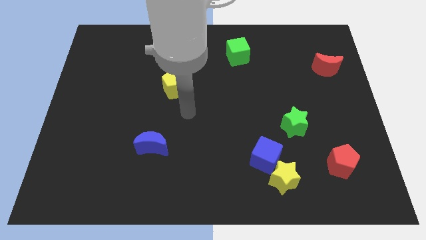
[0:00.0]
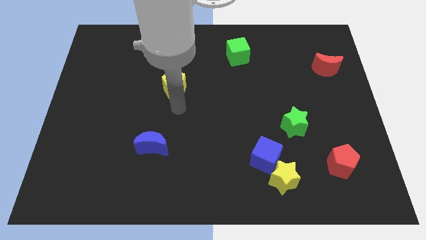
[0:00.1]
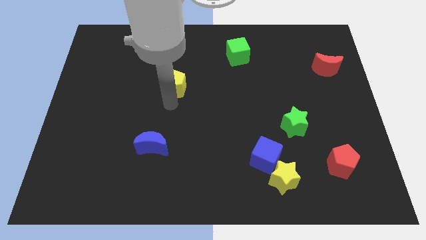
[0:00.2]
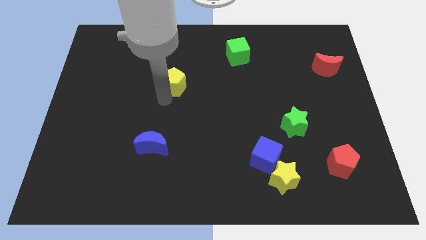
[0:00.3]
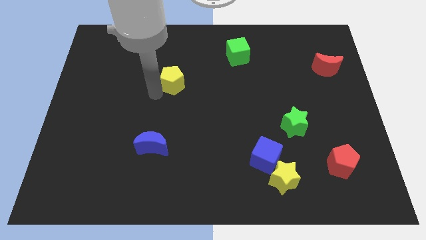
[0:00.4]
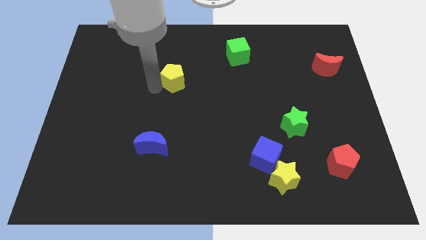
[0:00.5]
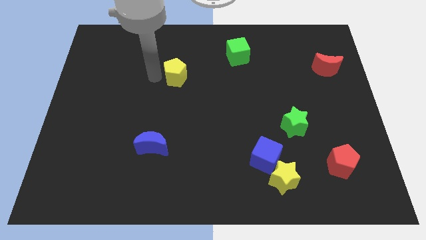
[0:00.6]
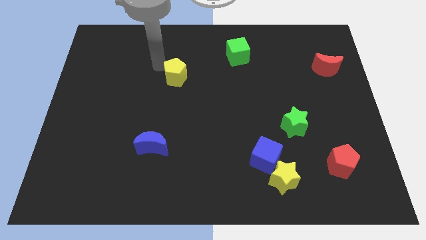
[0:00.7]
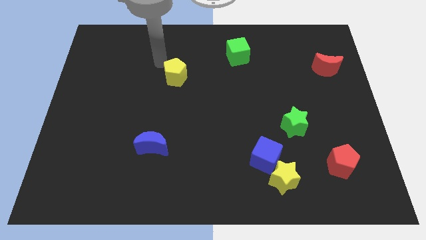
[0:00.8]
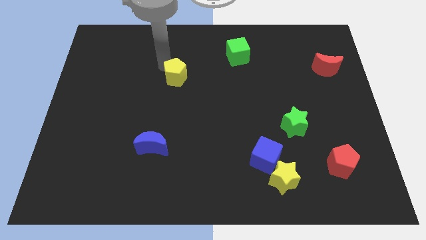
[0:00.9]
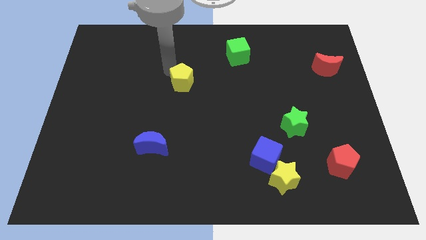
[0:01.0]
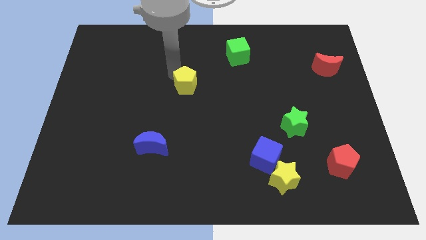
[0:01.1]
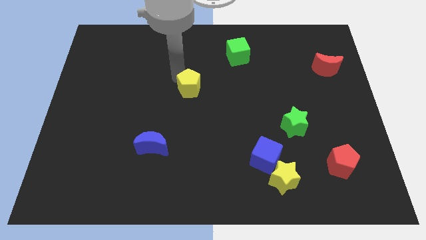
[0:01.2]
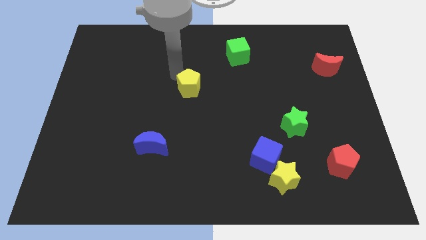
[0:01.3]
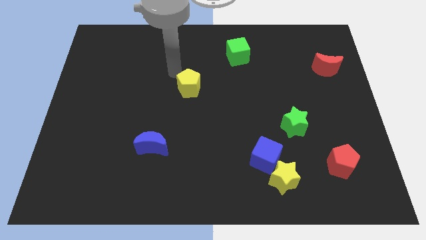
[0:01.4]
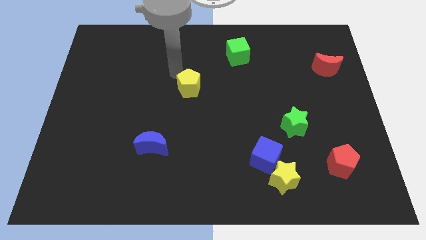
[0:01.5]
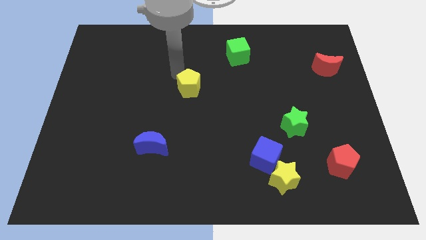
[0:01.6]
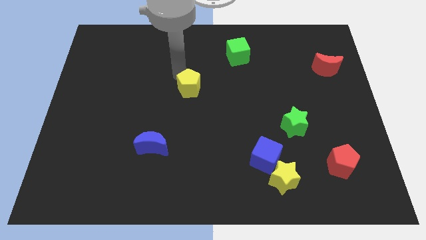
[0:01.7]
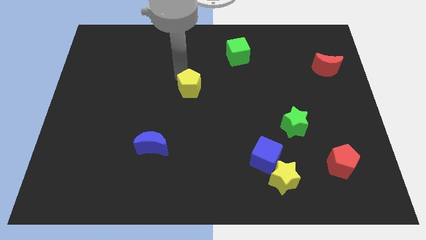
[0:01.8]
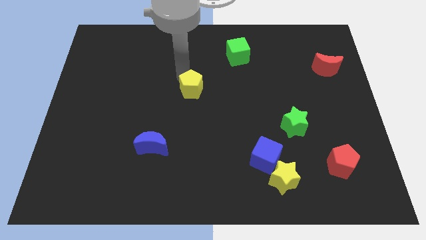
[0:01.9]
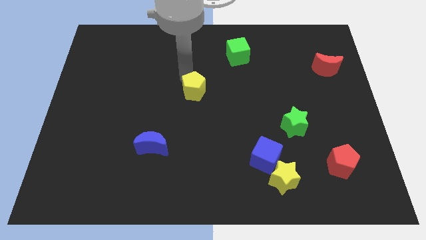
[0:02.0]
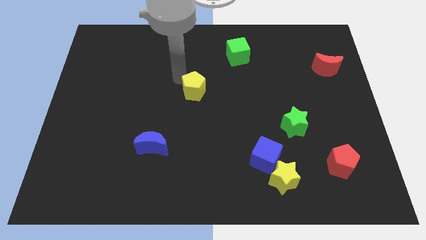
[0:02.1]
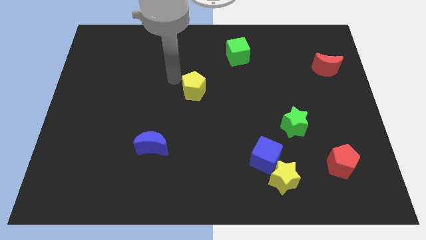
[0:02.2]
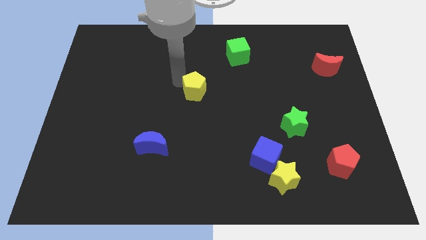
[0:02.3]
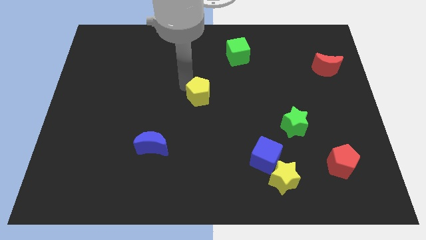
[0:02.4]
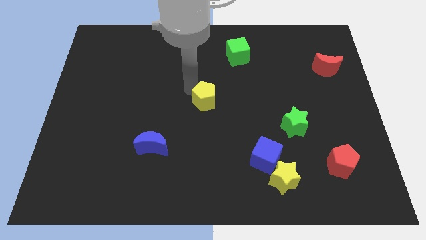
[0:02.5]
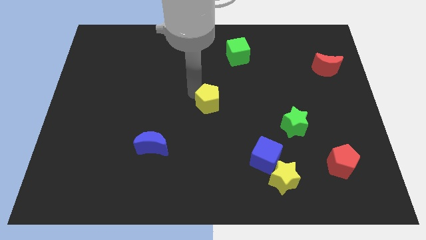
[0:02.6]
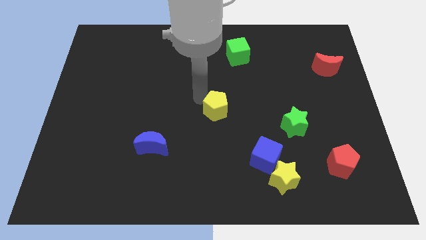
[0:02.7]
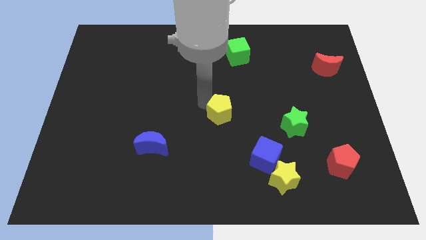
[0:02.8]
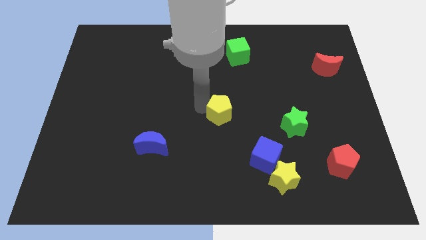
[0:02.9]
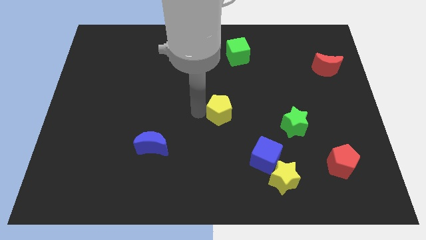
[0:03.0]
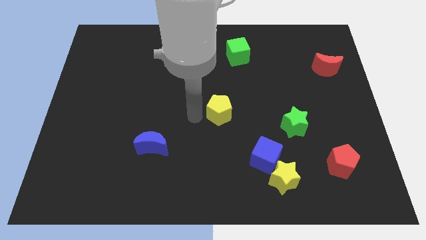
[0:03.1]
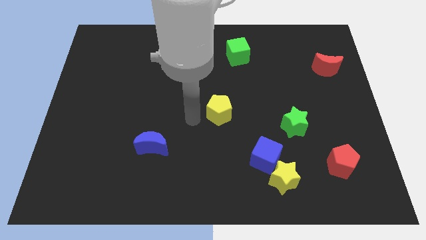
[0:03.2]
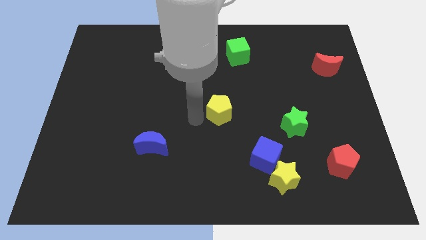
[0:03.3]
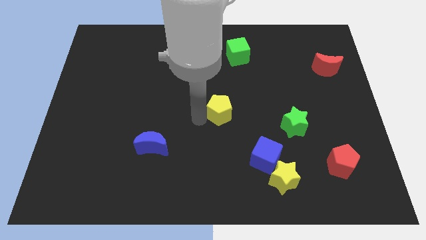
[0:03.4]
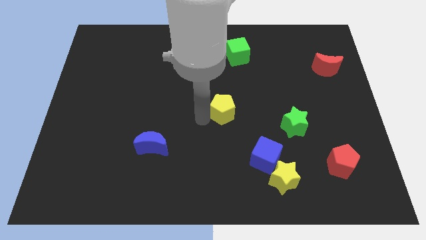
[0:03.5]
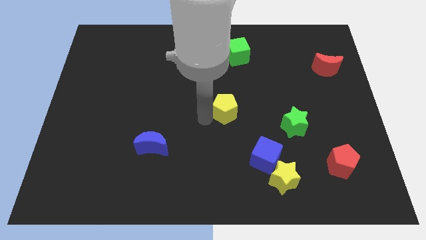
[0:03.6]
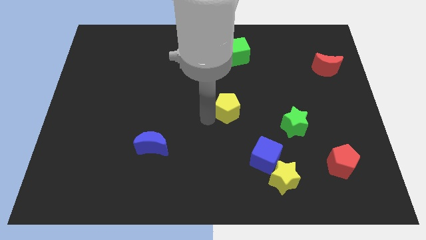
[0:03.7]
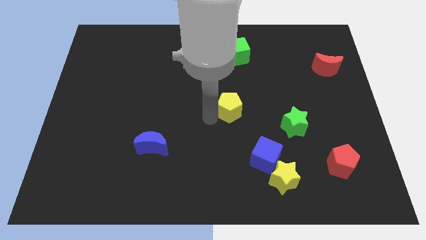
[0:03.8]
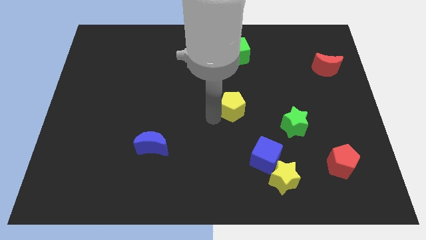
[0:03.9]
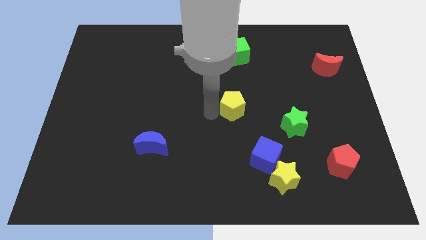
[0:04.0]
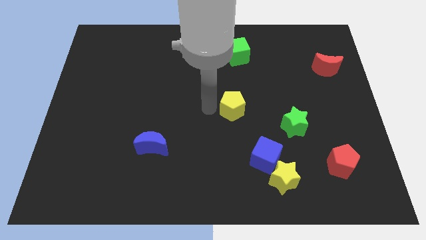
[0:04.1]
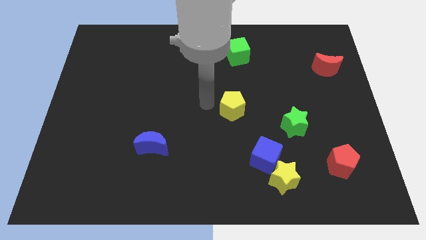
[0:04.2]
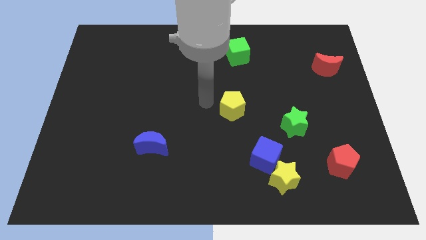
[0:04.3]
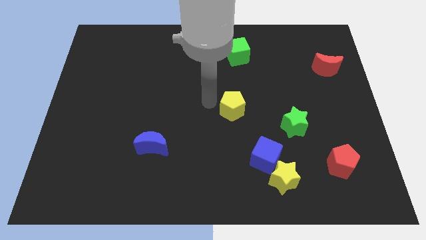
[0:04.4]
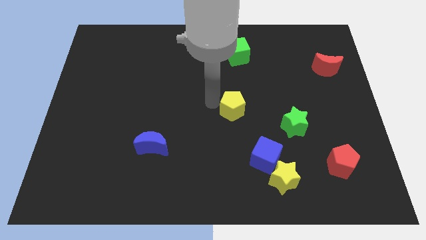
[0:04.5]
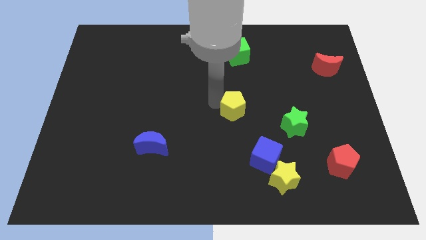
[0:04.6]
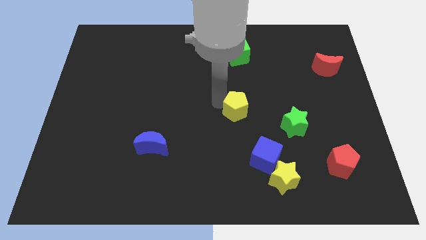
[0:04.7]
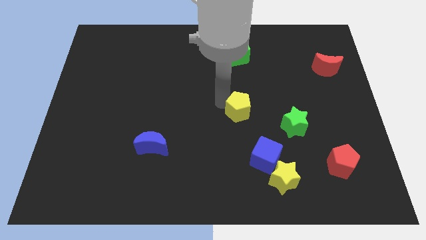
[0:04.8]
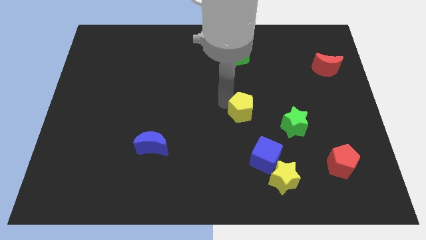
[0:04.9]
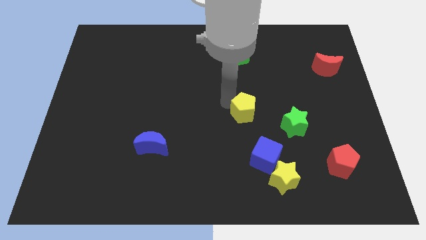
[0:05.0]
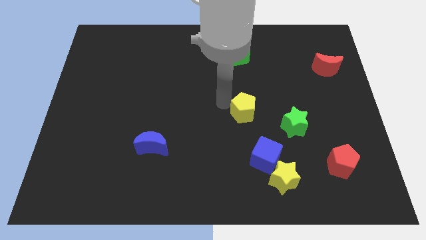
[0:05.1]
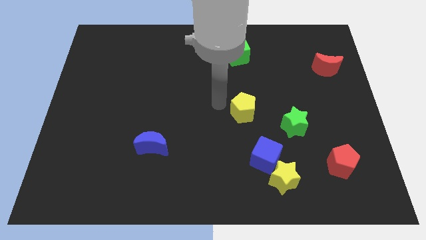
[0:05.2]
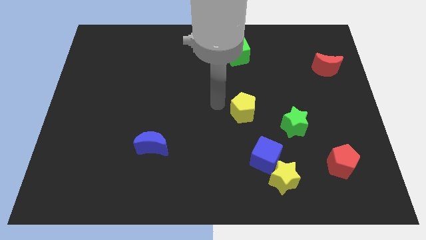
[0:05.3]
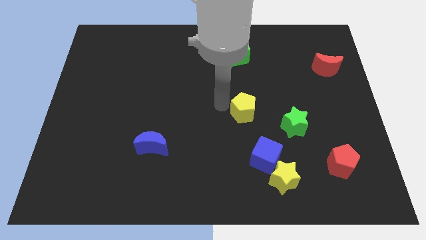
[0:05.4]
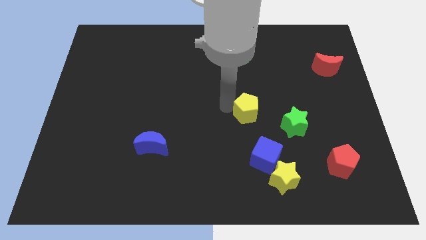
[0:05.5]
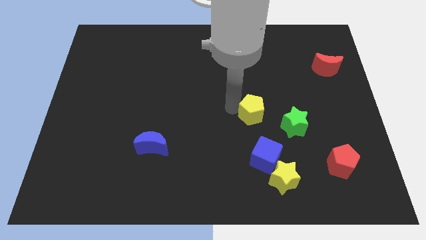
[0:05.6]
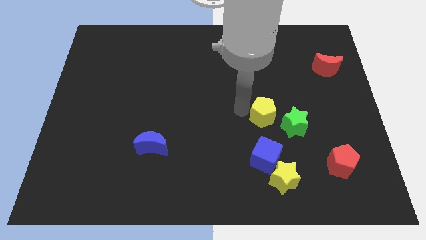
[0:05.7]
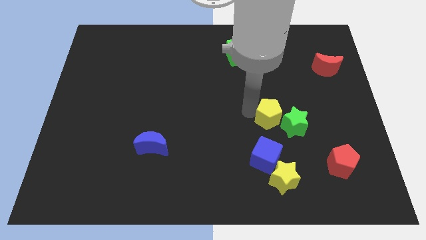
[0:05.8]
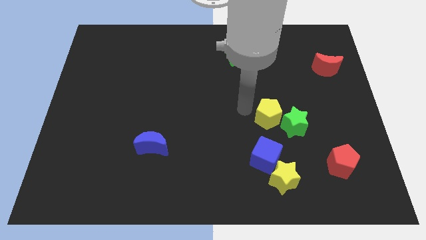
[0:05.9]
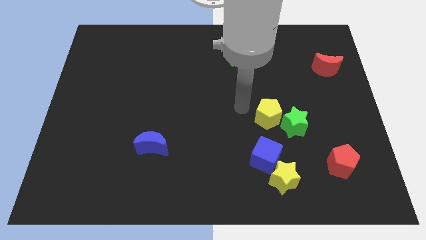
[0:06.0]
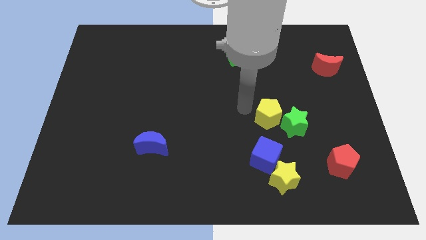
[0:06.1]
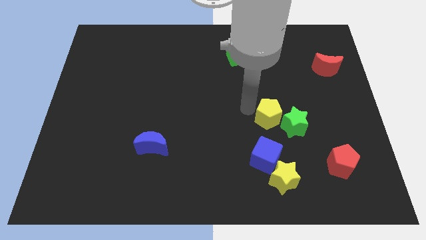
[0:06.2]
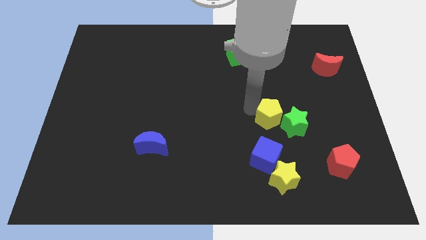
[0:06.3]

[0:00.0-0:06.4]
slide the yellow pentagon next to the green star

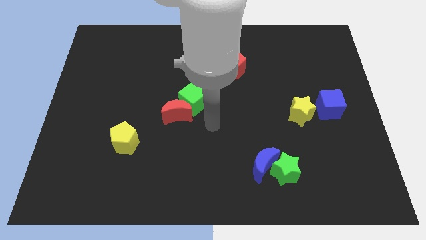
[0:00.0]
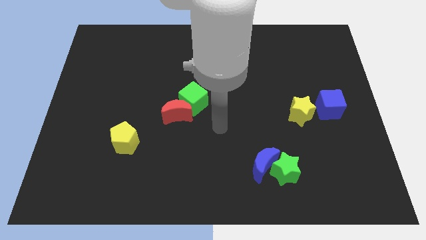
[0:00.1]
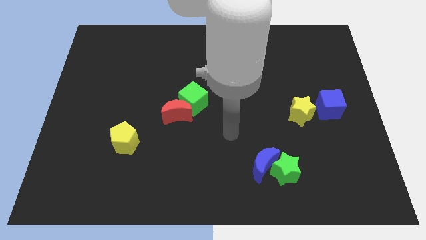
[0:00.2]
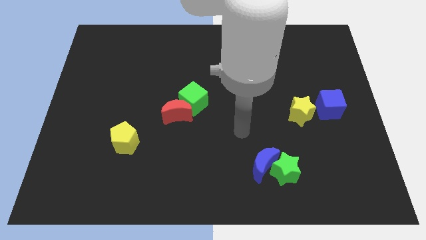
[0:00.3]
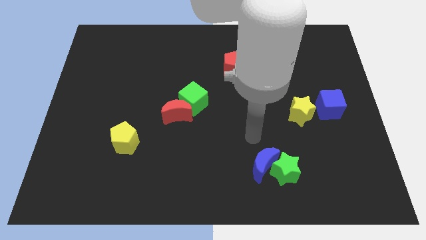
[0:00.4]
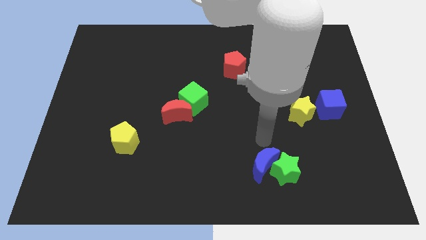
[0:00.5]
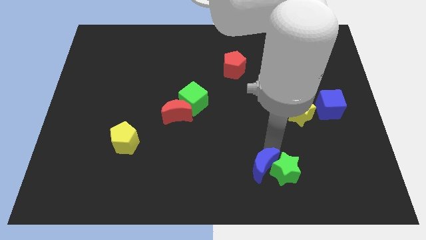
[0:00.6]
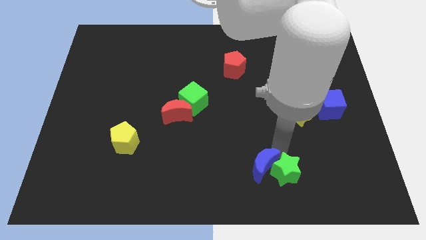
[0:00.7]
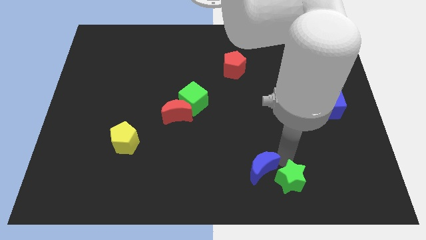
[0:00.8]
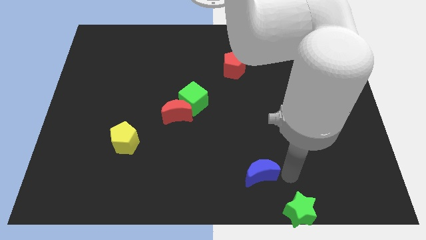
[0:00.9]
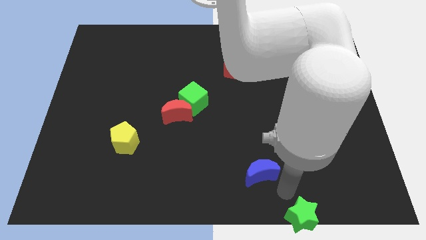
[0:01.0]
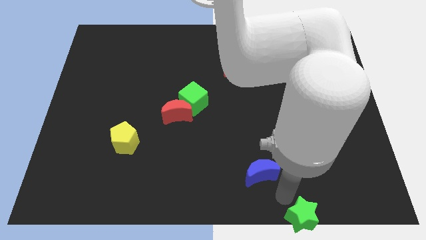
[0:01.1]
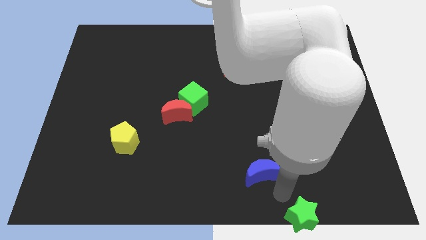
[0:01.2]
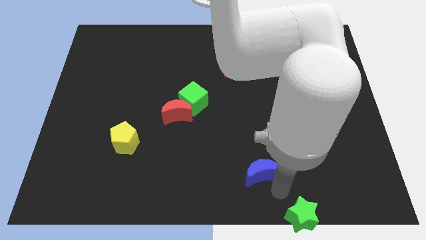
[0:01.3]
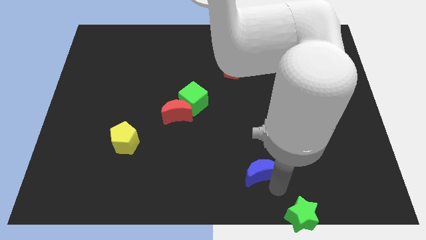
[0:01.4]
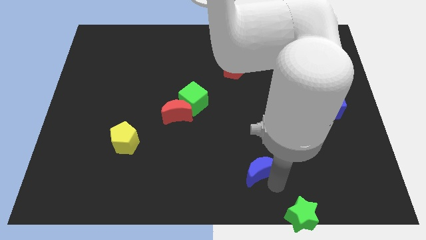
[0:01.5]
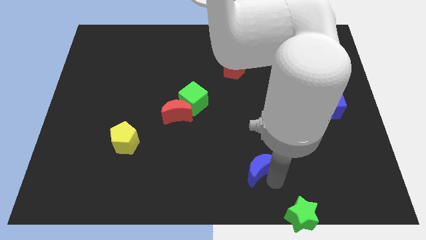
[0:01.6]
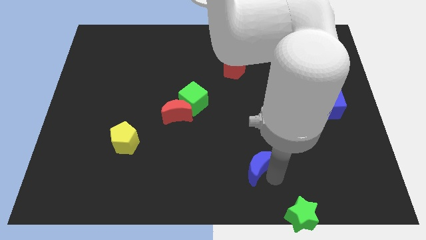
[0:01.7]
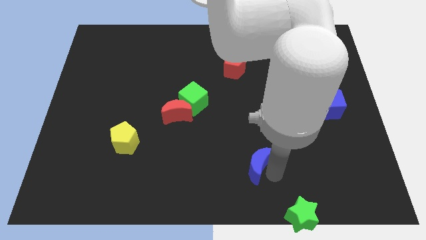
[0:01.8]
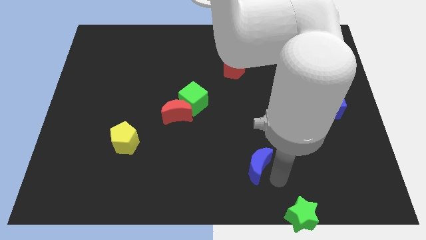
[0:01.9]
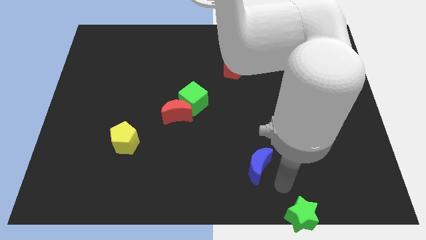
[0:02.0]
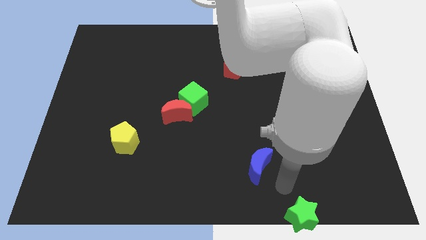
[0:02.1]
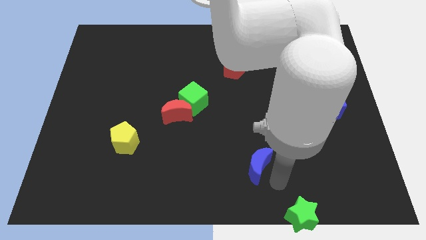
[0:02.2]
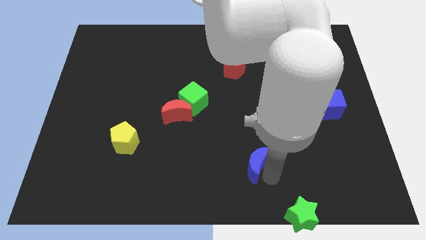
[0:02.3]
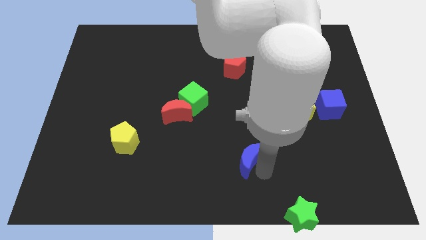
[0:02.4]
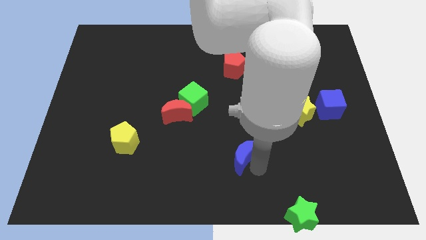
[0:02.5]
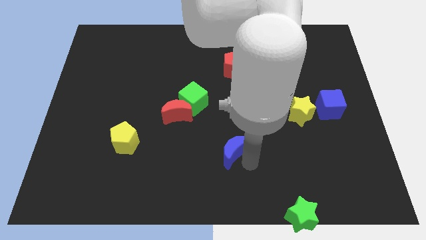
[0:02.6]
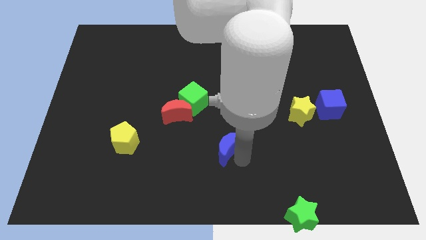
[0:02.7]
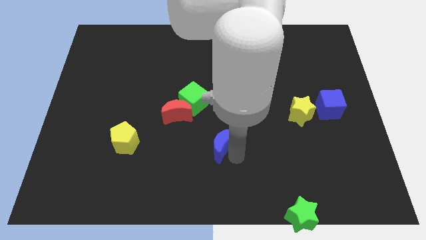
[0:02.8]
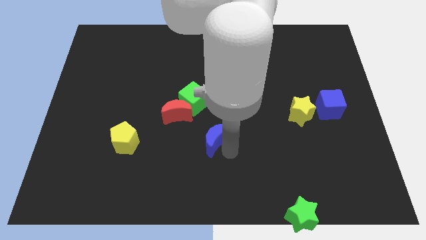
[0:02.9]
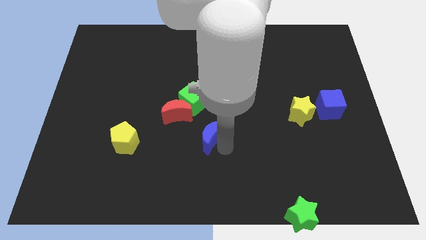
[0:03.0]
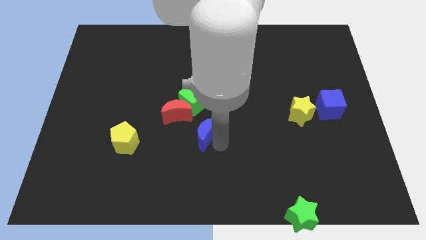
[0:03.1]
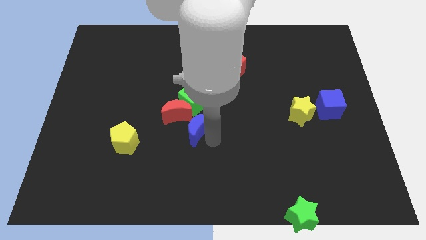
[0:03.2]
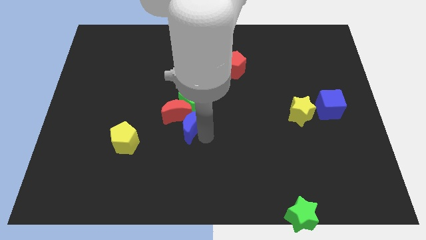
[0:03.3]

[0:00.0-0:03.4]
put the blue moon to the red moon
